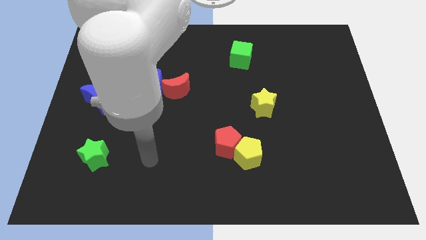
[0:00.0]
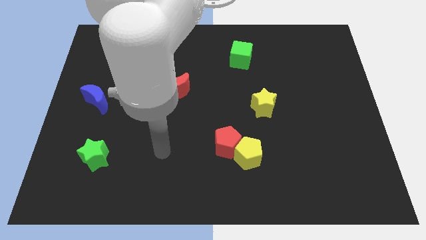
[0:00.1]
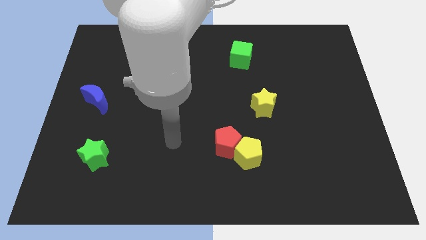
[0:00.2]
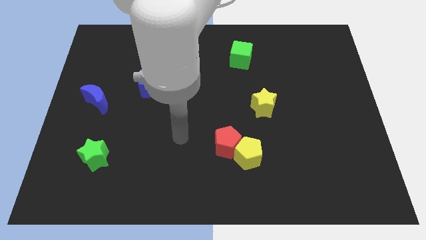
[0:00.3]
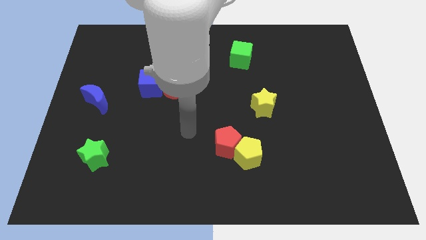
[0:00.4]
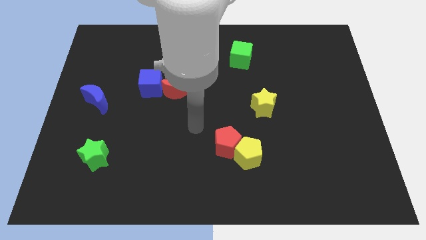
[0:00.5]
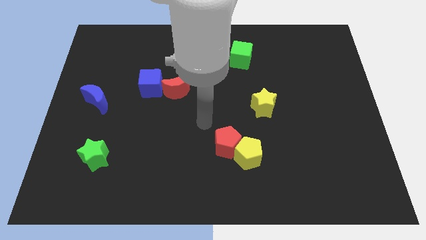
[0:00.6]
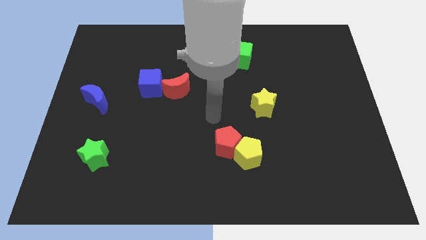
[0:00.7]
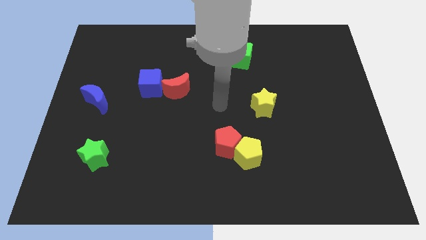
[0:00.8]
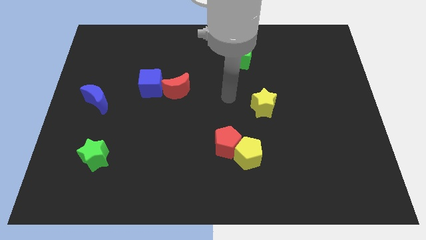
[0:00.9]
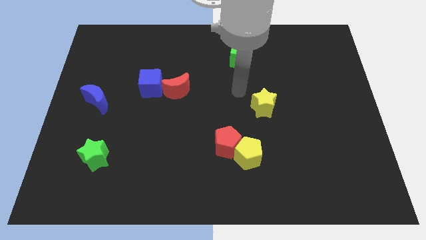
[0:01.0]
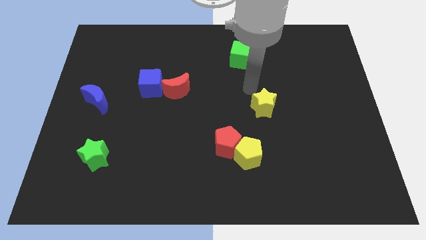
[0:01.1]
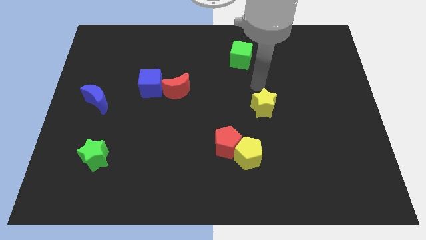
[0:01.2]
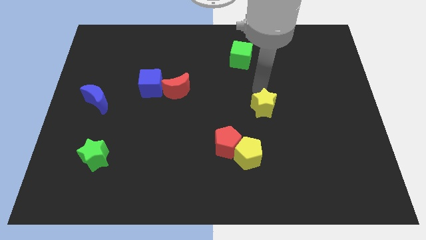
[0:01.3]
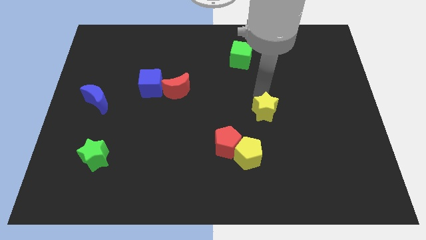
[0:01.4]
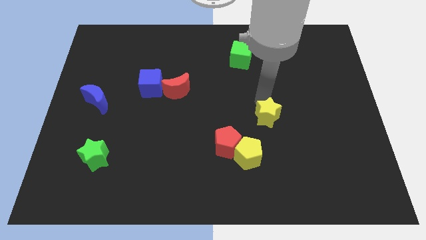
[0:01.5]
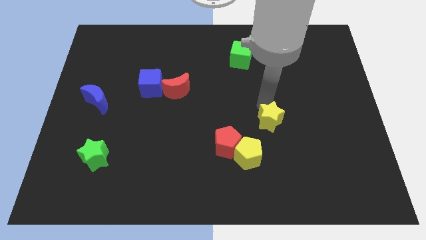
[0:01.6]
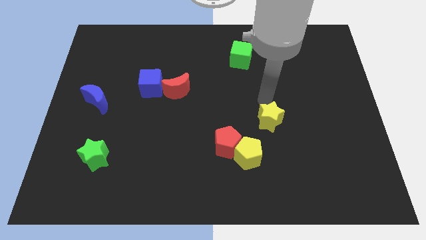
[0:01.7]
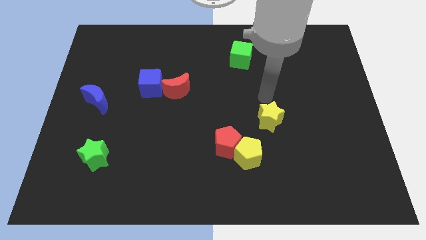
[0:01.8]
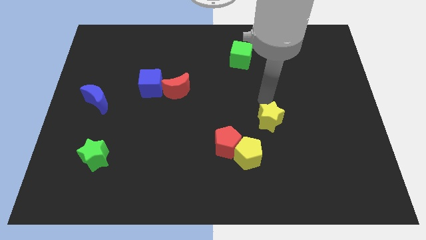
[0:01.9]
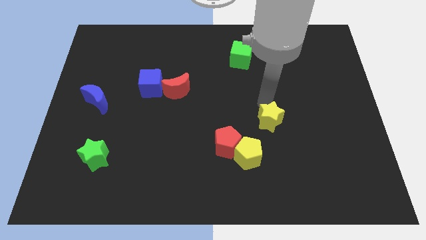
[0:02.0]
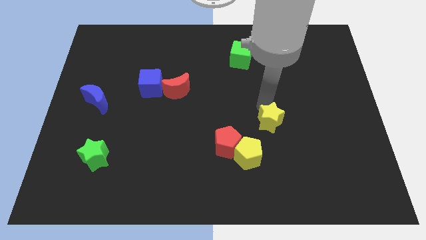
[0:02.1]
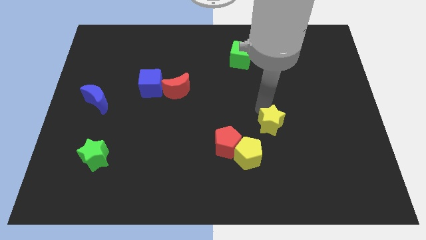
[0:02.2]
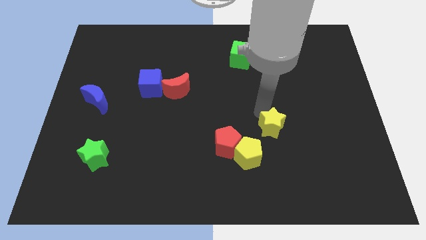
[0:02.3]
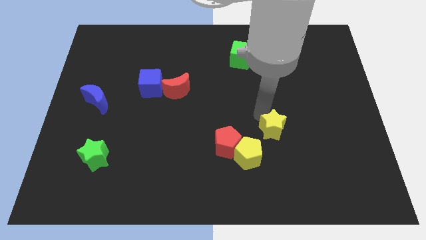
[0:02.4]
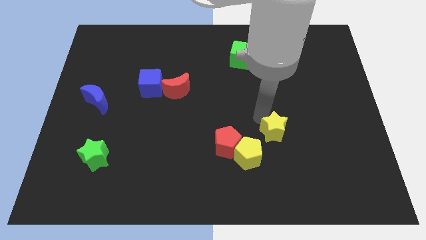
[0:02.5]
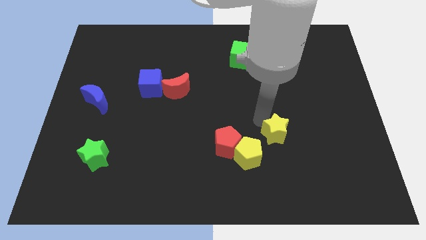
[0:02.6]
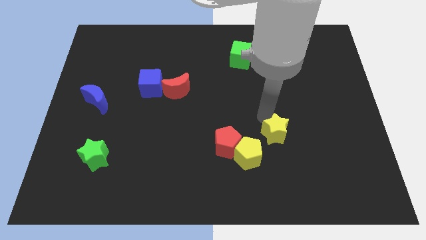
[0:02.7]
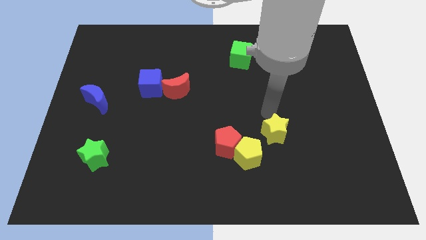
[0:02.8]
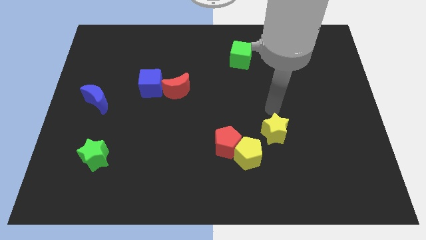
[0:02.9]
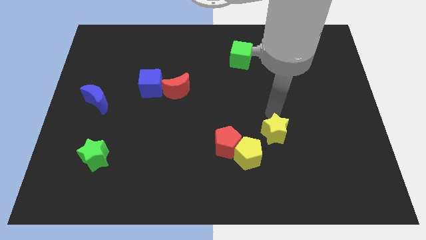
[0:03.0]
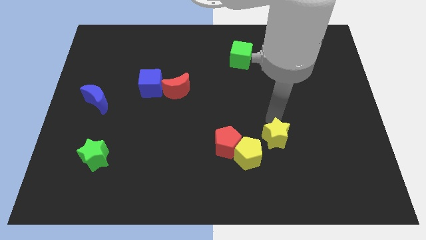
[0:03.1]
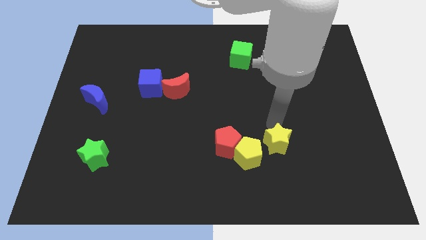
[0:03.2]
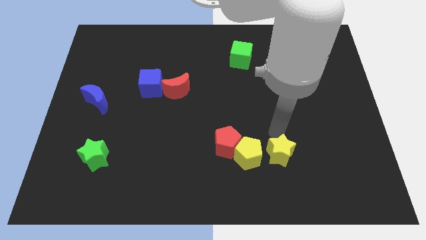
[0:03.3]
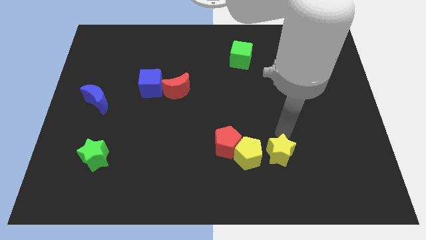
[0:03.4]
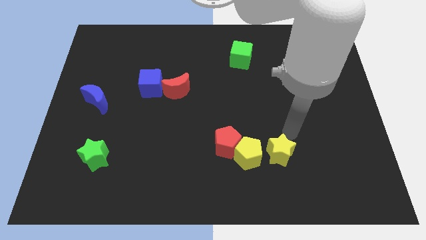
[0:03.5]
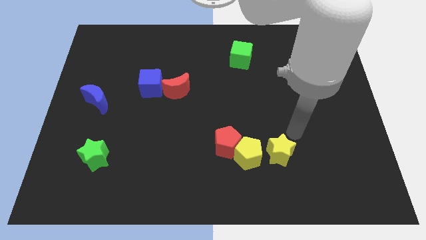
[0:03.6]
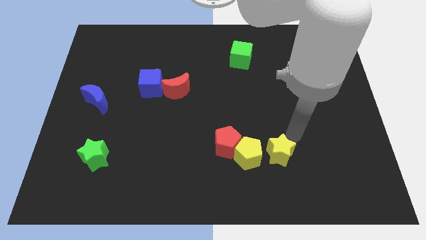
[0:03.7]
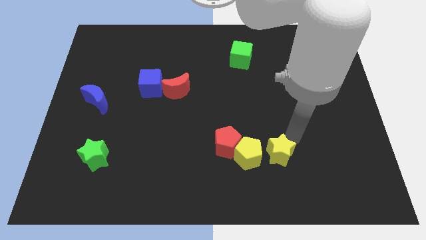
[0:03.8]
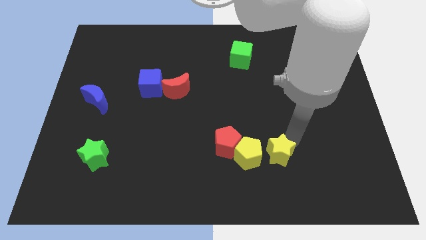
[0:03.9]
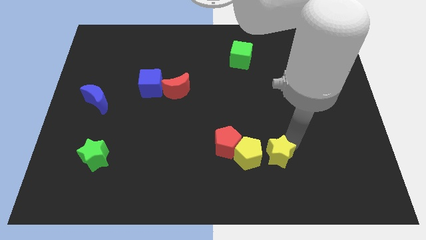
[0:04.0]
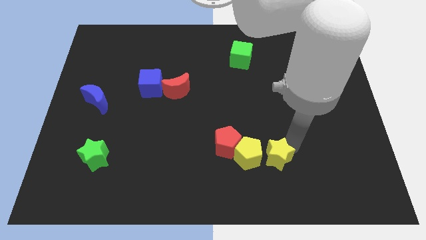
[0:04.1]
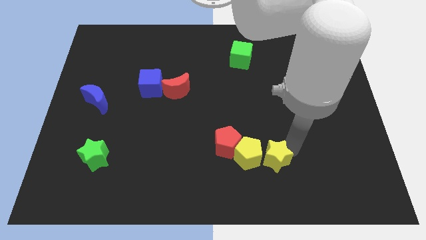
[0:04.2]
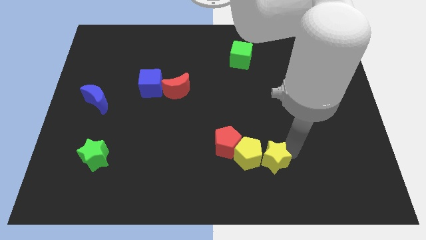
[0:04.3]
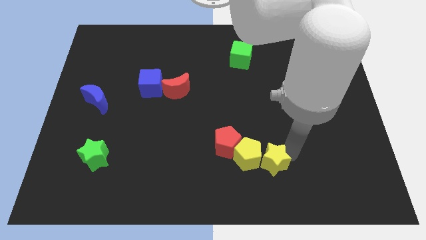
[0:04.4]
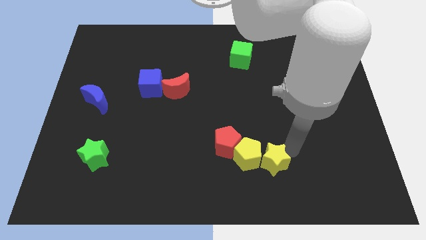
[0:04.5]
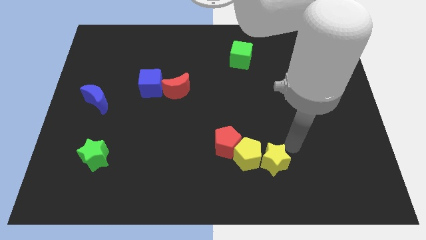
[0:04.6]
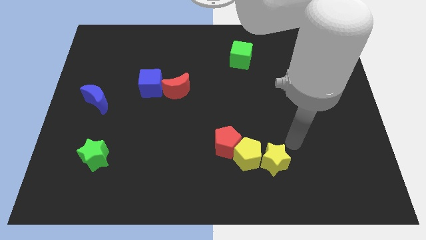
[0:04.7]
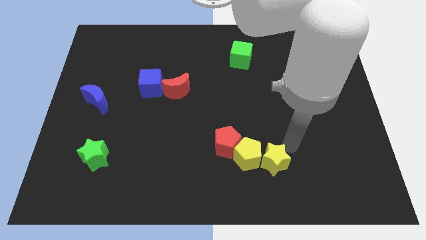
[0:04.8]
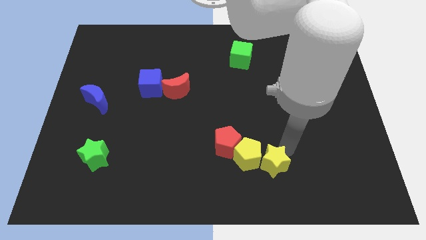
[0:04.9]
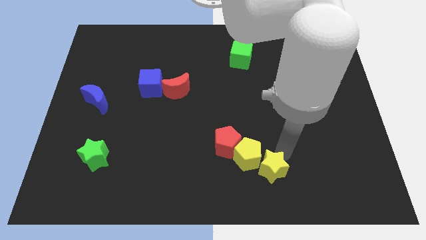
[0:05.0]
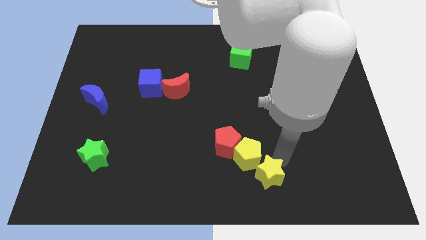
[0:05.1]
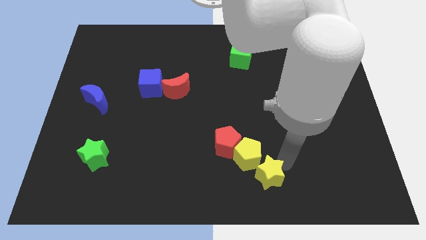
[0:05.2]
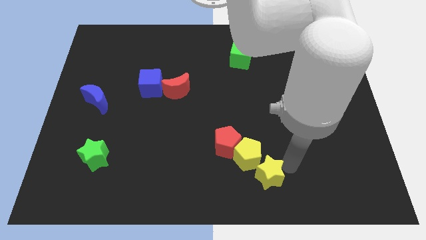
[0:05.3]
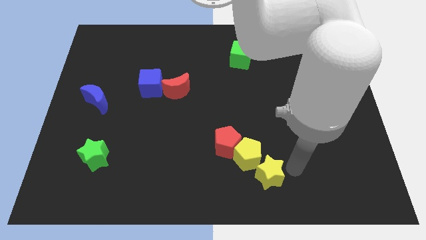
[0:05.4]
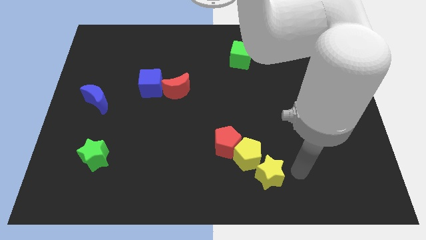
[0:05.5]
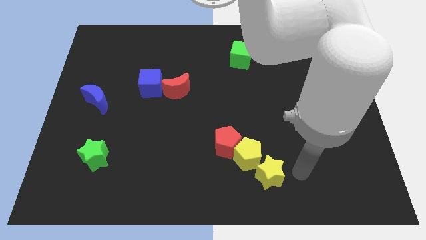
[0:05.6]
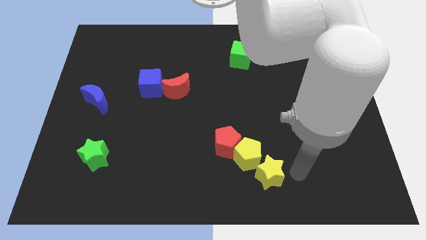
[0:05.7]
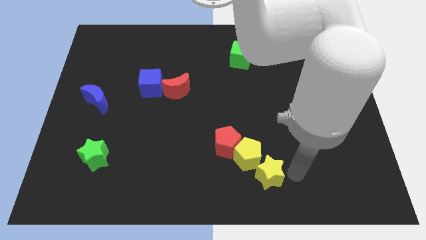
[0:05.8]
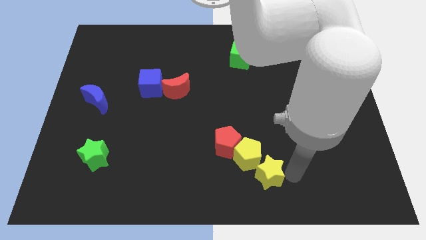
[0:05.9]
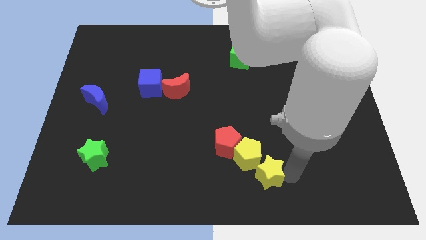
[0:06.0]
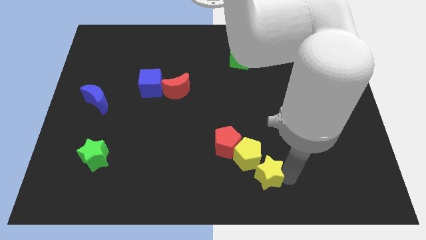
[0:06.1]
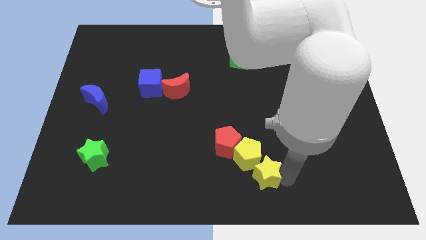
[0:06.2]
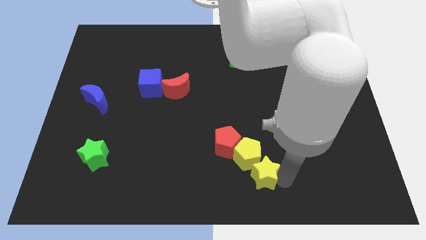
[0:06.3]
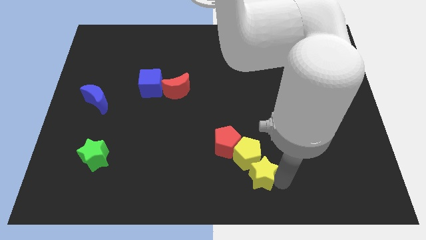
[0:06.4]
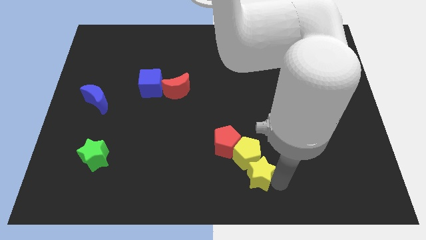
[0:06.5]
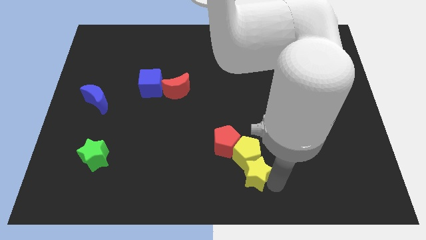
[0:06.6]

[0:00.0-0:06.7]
push the yellow star to the bottom left of the yellow pentagon
